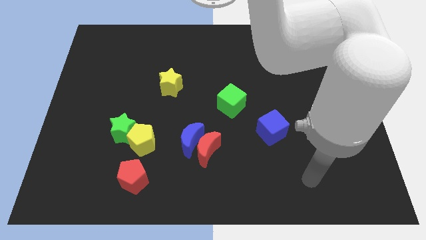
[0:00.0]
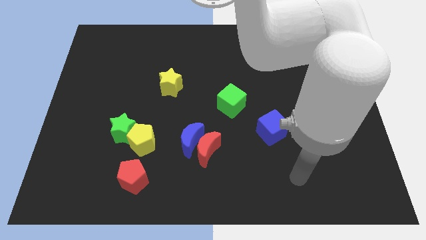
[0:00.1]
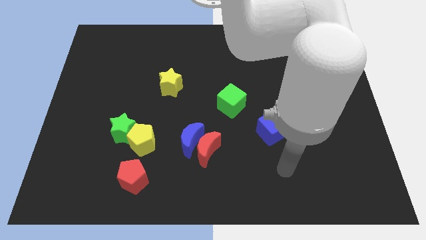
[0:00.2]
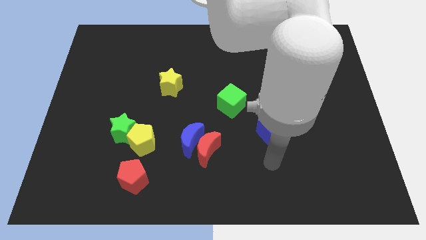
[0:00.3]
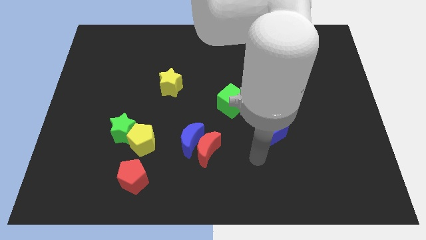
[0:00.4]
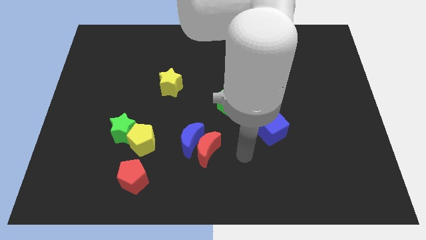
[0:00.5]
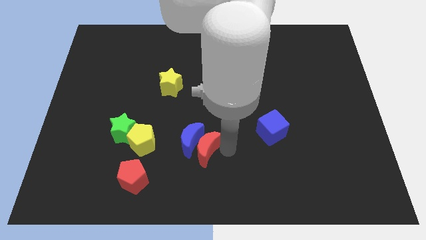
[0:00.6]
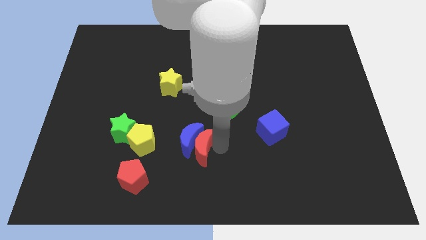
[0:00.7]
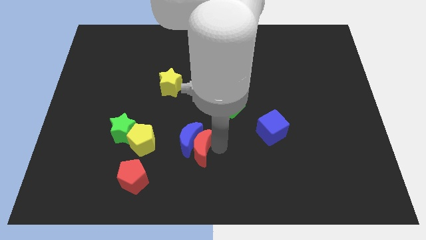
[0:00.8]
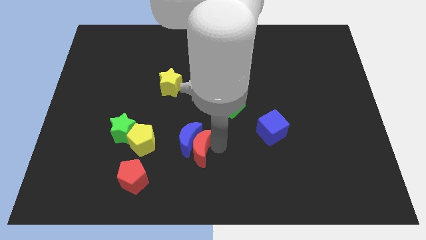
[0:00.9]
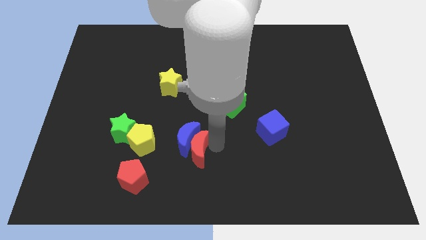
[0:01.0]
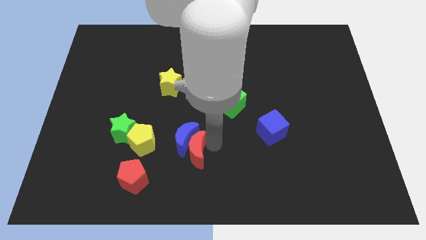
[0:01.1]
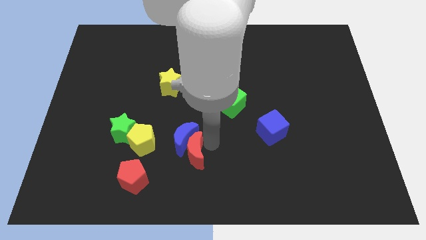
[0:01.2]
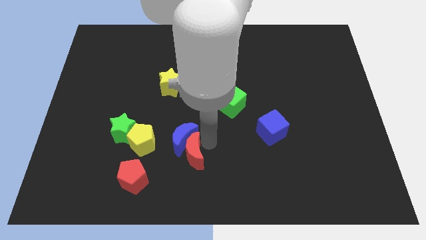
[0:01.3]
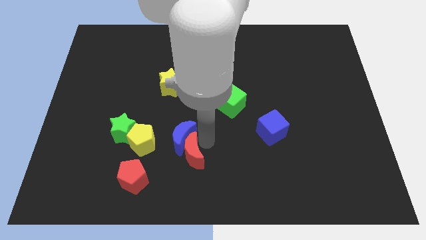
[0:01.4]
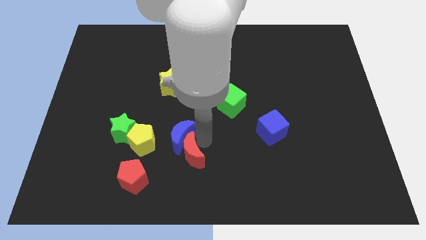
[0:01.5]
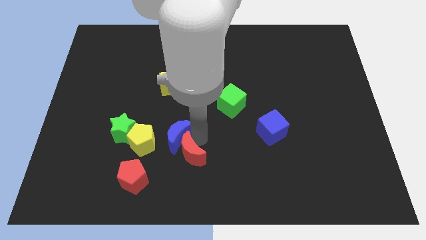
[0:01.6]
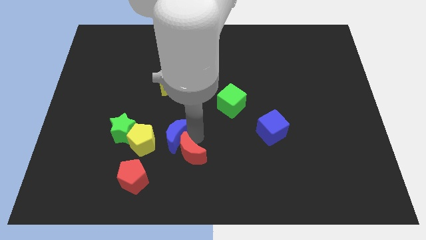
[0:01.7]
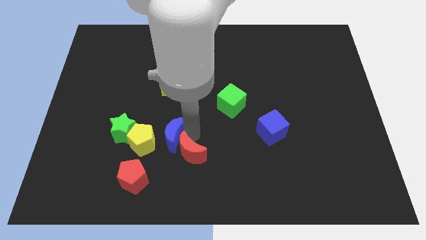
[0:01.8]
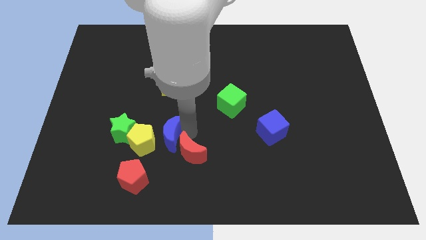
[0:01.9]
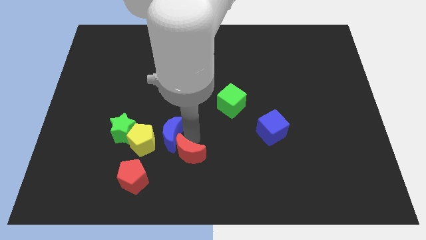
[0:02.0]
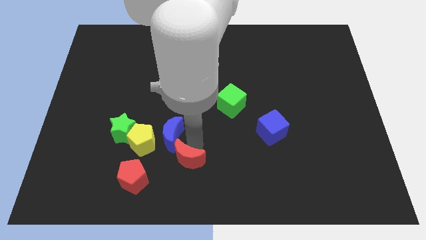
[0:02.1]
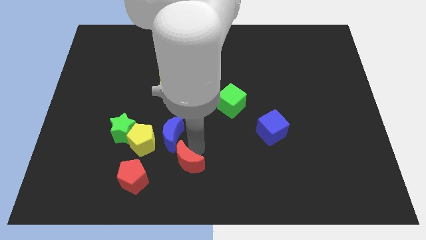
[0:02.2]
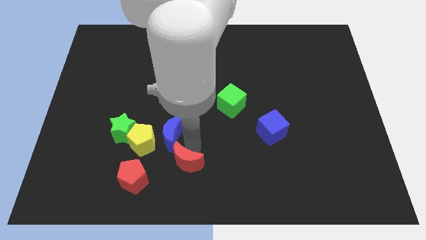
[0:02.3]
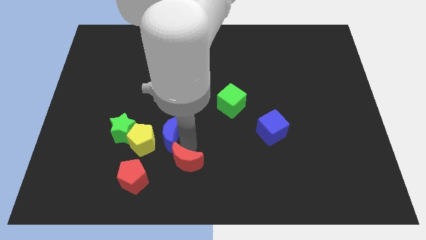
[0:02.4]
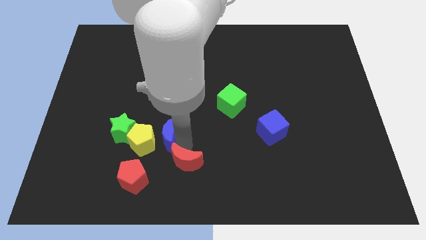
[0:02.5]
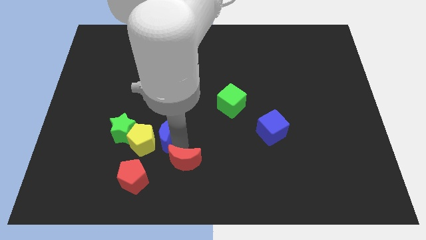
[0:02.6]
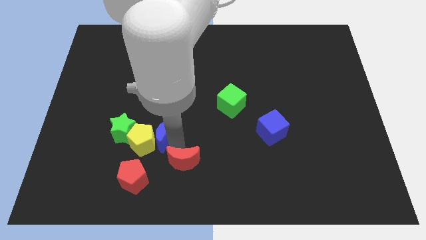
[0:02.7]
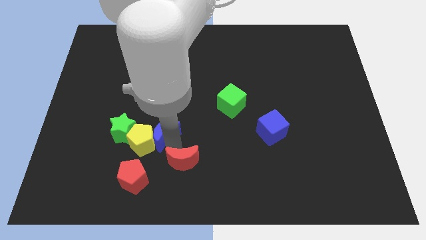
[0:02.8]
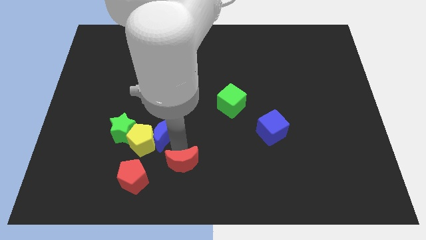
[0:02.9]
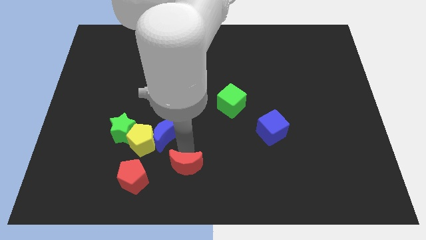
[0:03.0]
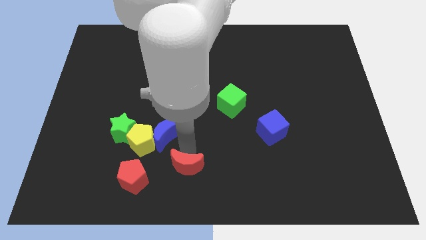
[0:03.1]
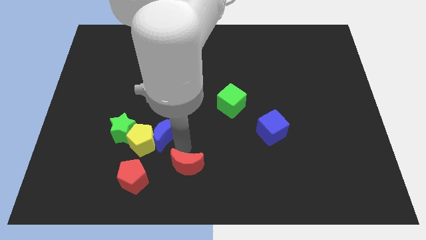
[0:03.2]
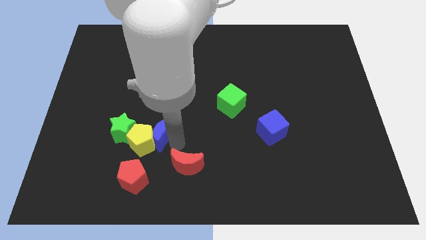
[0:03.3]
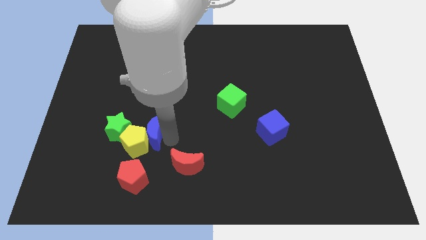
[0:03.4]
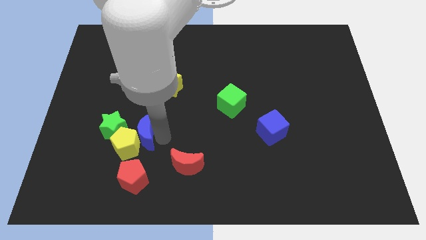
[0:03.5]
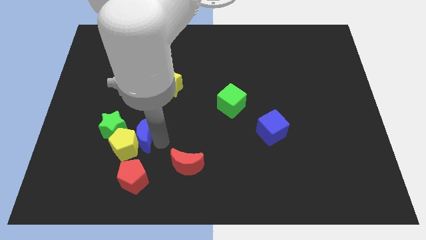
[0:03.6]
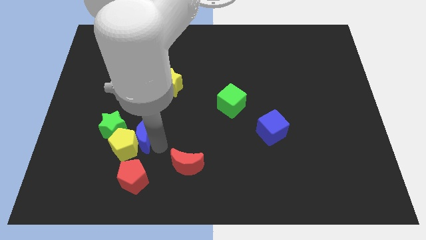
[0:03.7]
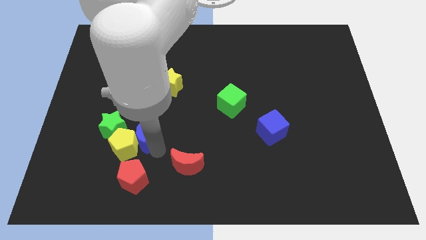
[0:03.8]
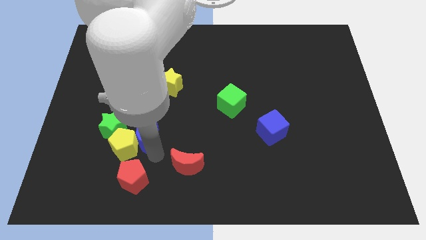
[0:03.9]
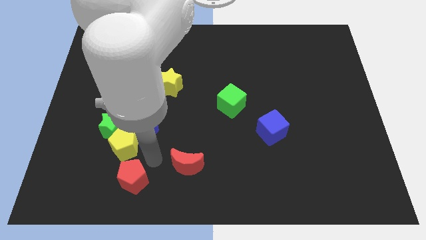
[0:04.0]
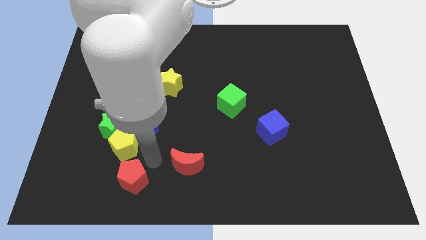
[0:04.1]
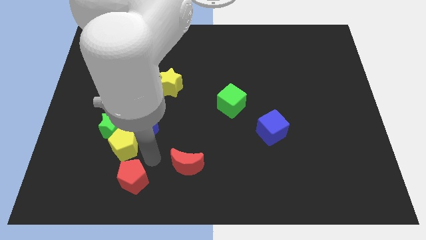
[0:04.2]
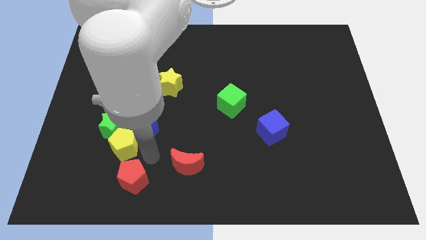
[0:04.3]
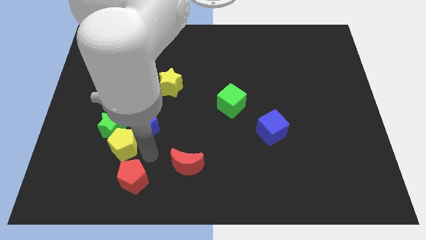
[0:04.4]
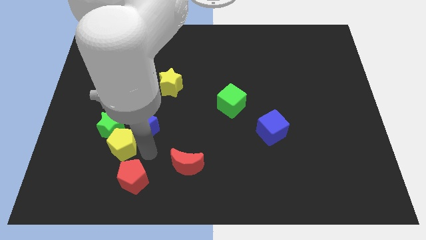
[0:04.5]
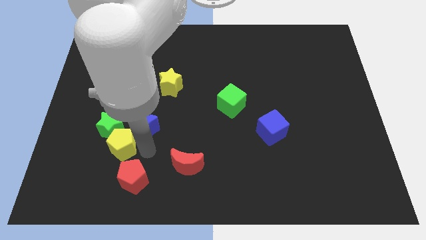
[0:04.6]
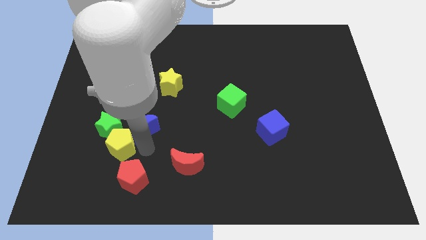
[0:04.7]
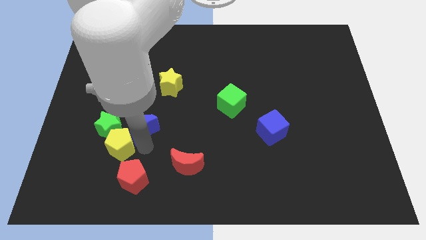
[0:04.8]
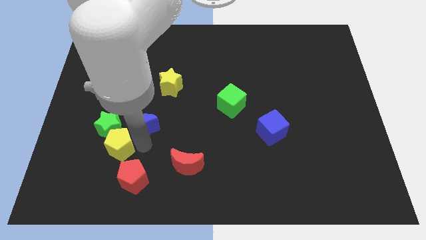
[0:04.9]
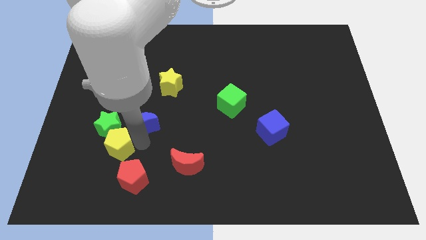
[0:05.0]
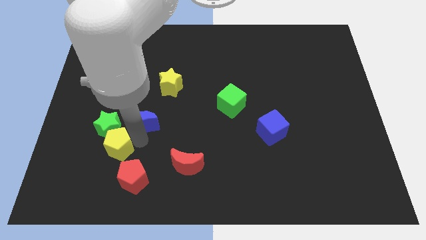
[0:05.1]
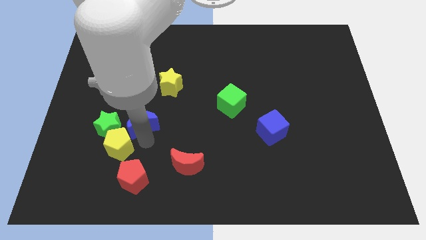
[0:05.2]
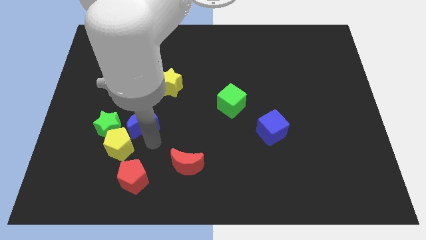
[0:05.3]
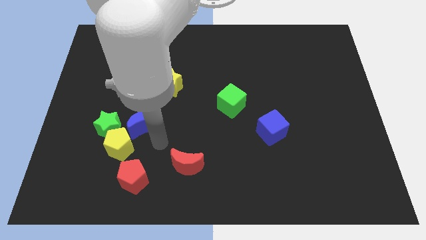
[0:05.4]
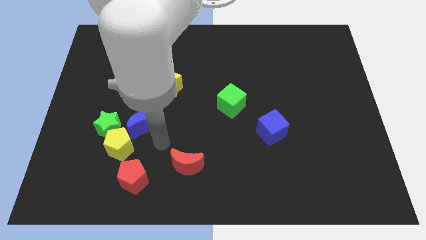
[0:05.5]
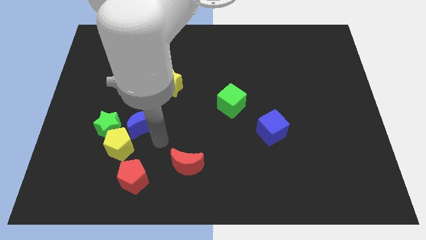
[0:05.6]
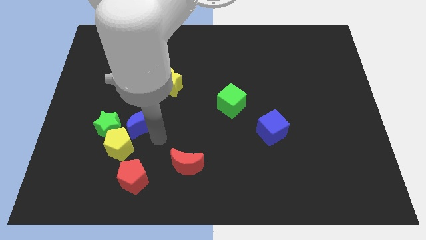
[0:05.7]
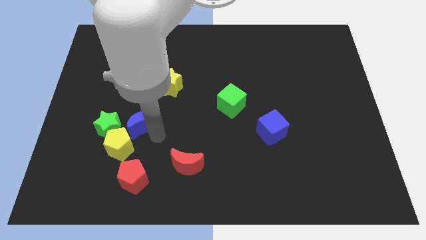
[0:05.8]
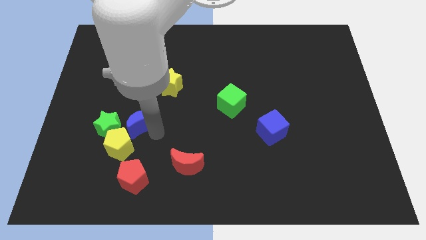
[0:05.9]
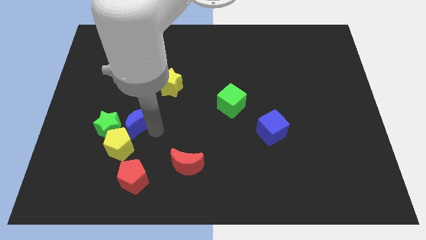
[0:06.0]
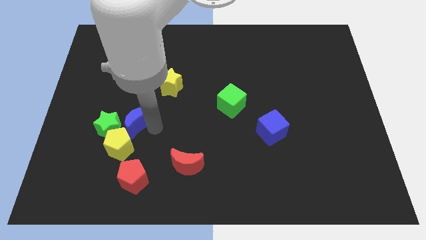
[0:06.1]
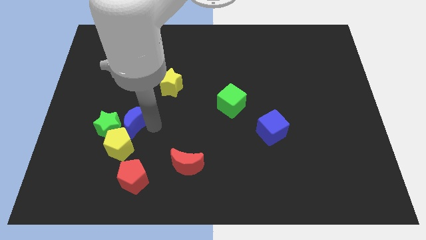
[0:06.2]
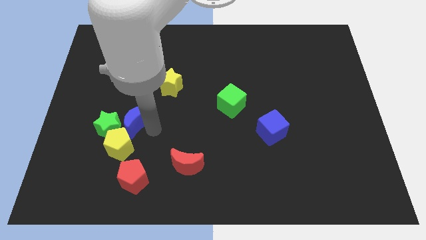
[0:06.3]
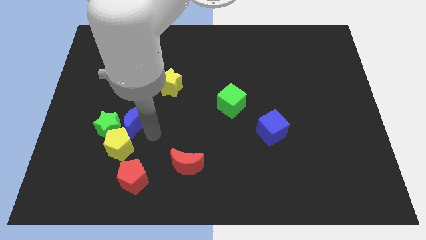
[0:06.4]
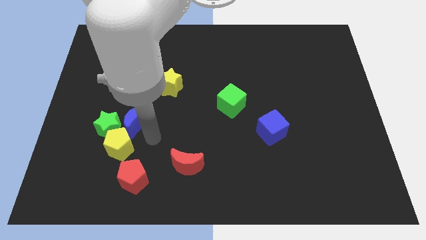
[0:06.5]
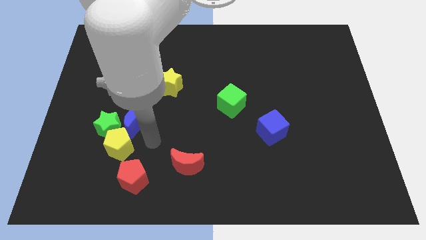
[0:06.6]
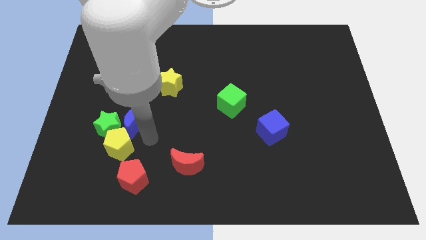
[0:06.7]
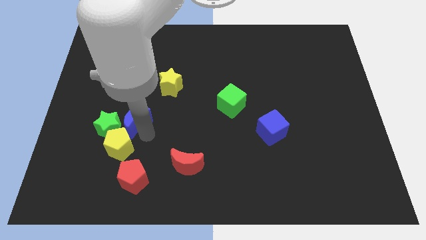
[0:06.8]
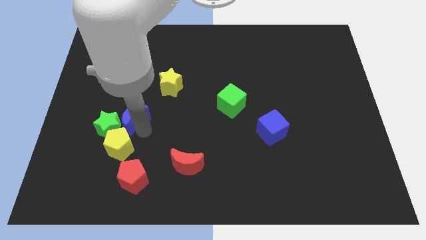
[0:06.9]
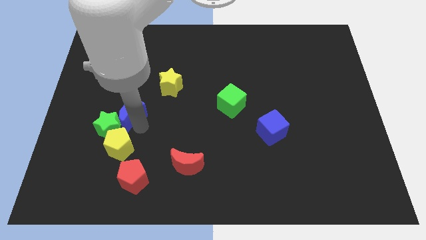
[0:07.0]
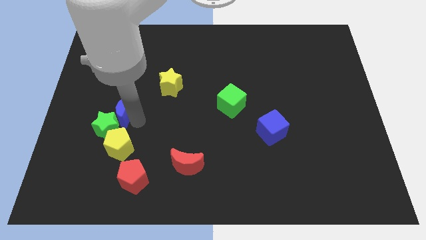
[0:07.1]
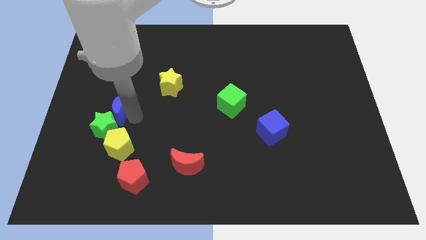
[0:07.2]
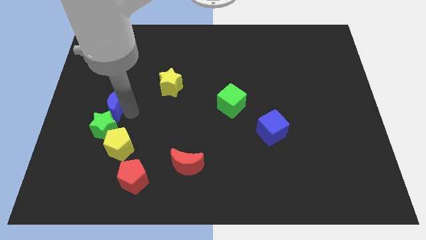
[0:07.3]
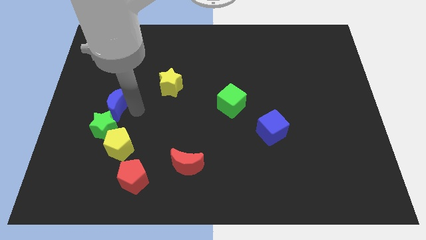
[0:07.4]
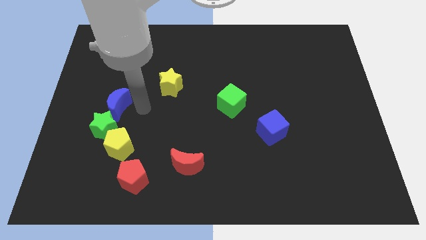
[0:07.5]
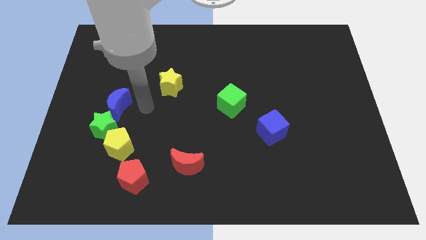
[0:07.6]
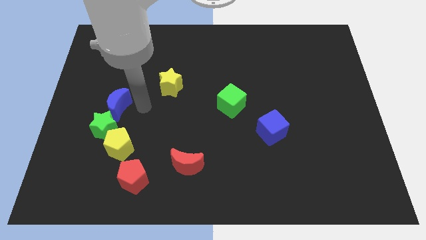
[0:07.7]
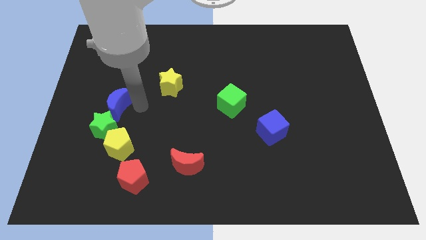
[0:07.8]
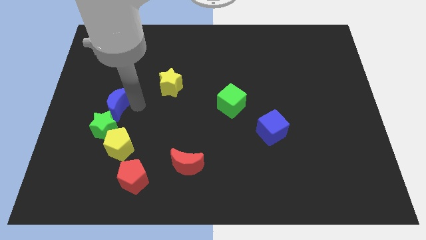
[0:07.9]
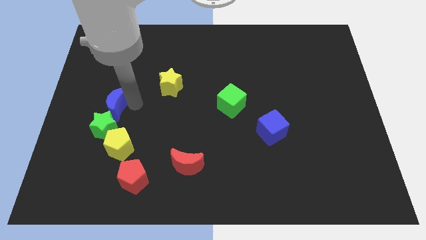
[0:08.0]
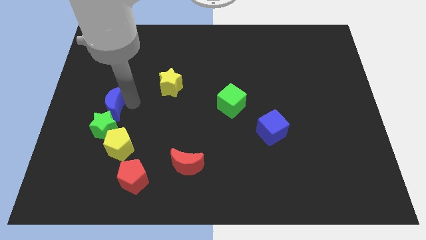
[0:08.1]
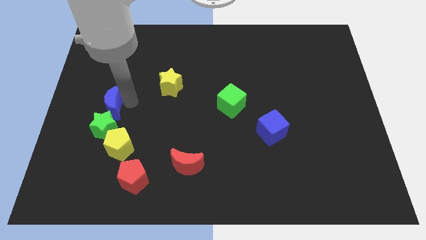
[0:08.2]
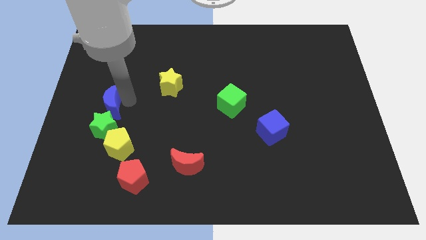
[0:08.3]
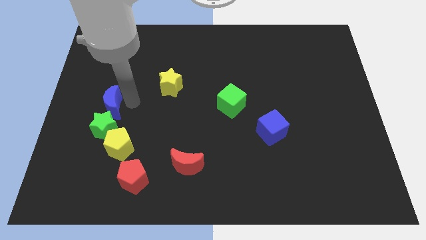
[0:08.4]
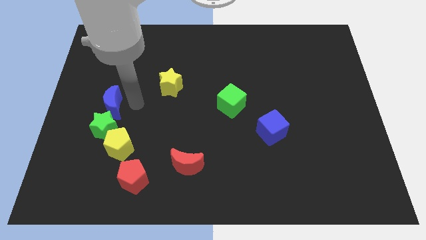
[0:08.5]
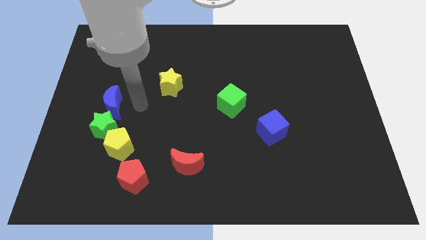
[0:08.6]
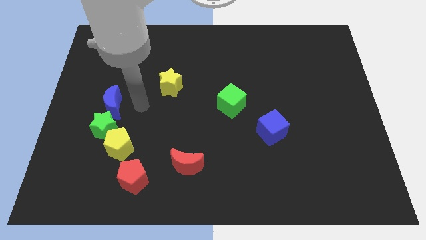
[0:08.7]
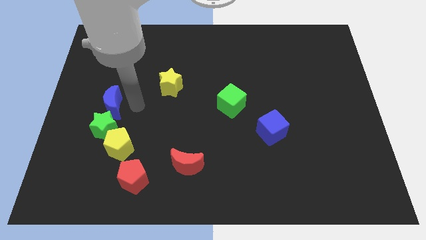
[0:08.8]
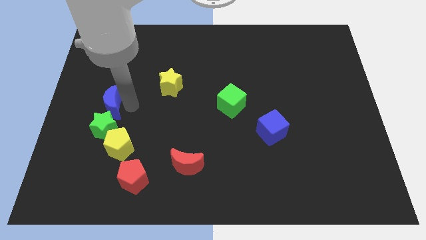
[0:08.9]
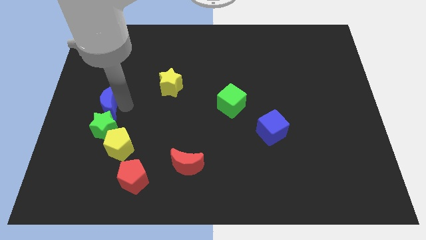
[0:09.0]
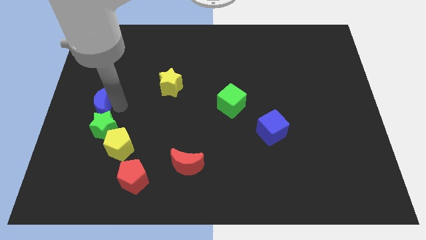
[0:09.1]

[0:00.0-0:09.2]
push the blue moon to the center left
